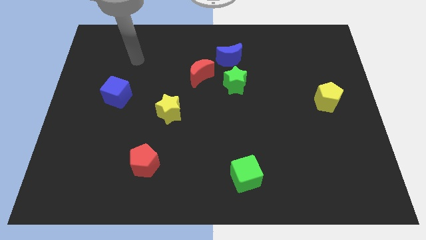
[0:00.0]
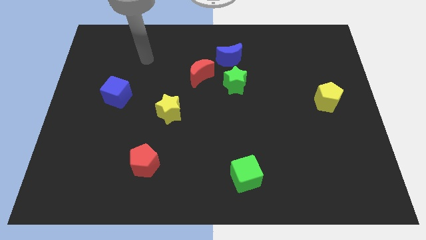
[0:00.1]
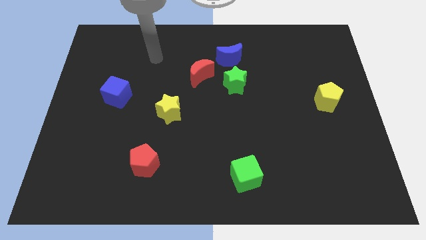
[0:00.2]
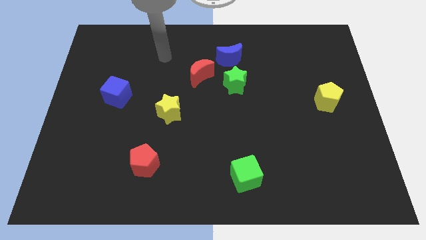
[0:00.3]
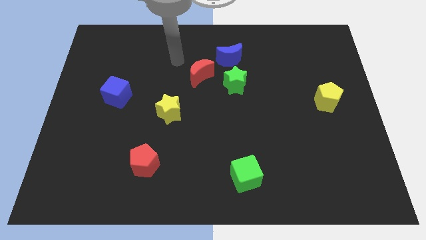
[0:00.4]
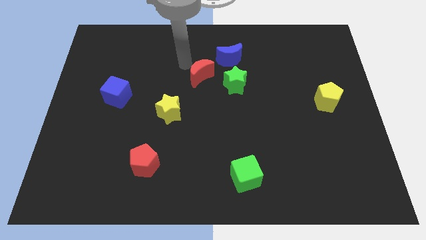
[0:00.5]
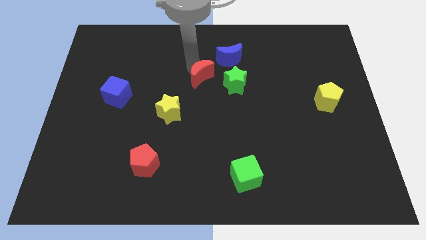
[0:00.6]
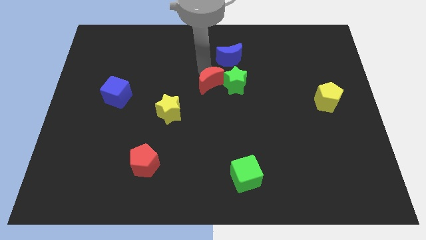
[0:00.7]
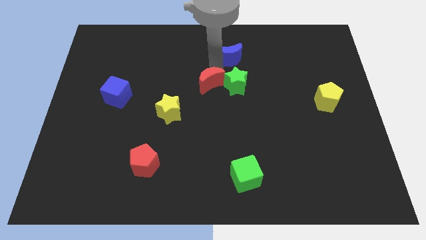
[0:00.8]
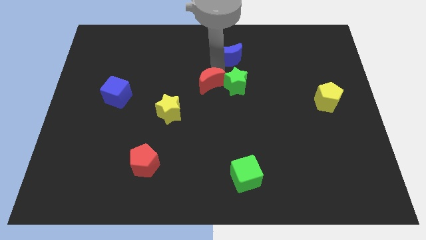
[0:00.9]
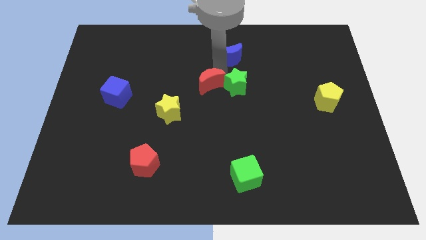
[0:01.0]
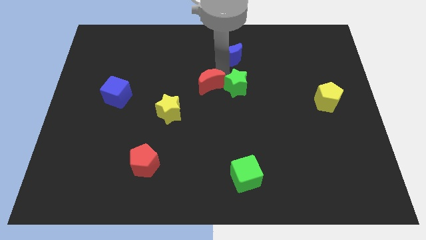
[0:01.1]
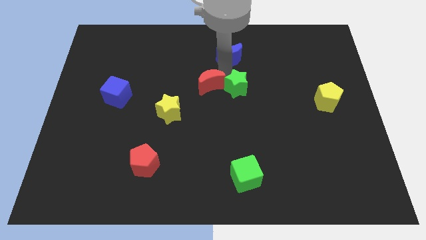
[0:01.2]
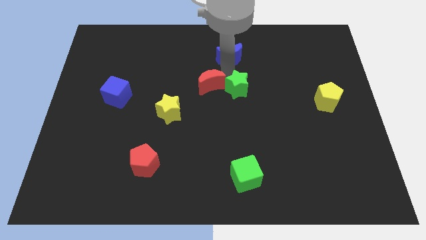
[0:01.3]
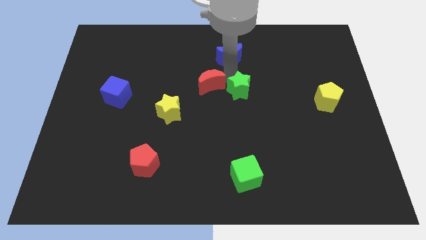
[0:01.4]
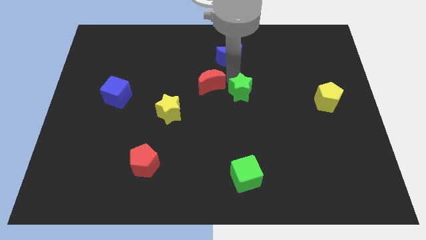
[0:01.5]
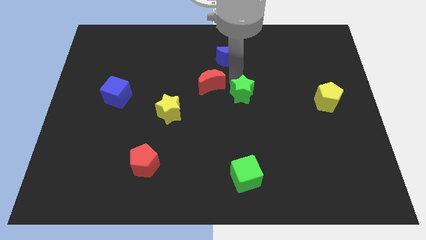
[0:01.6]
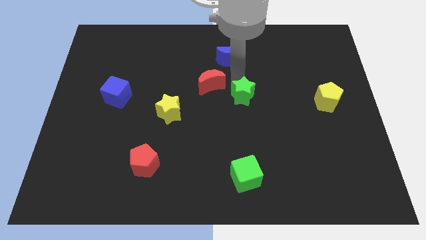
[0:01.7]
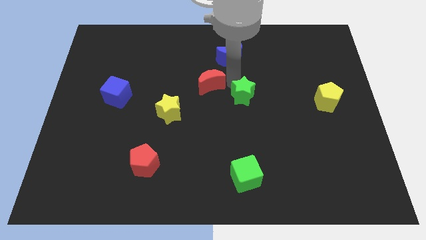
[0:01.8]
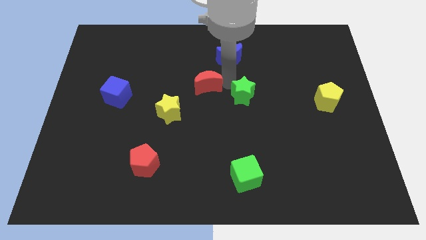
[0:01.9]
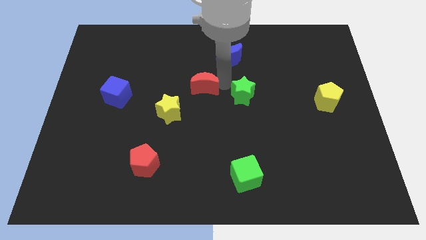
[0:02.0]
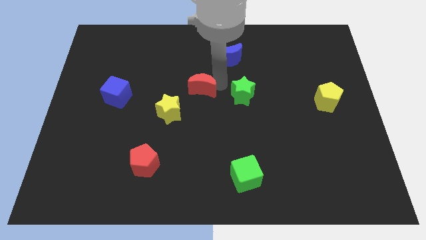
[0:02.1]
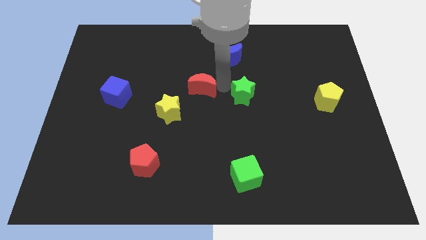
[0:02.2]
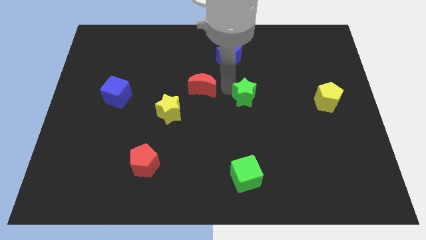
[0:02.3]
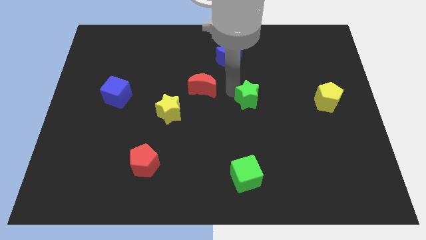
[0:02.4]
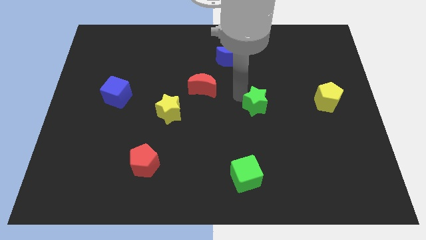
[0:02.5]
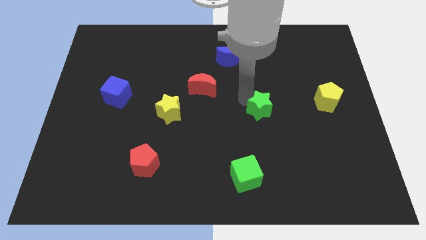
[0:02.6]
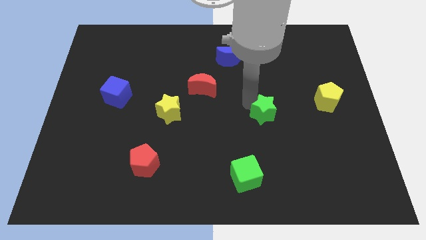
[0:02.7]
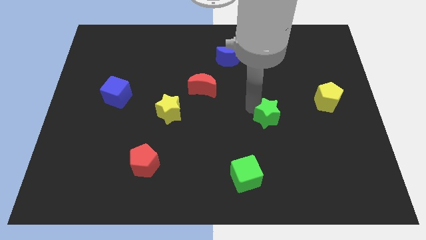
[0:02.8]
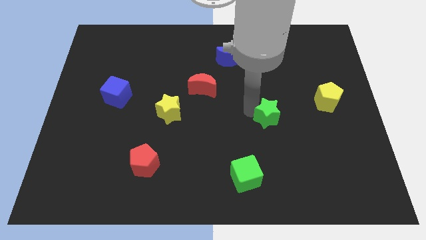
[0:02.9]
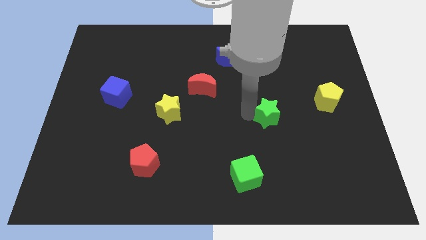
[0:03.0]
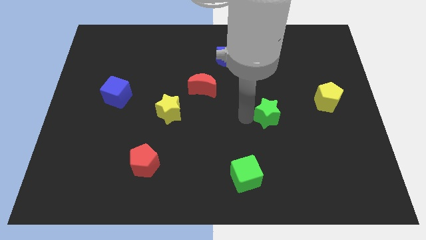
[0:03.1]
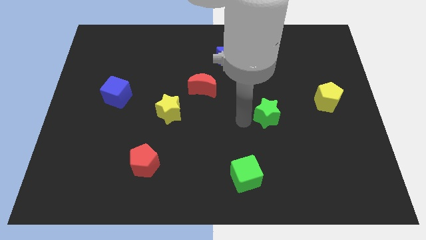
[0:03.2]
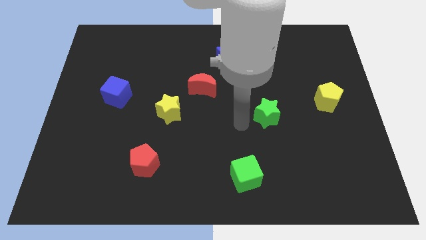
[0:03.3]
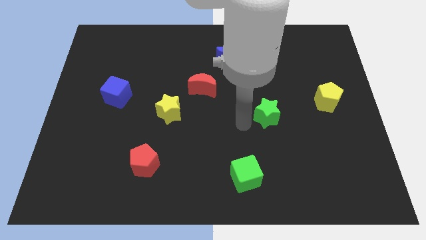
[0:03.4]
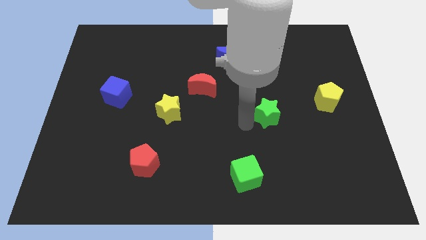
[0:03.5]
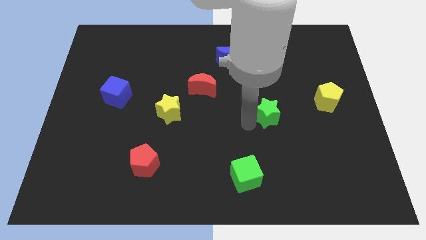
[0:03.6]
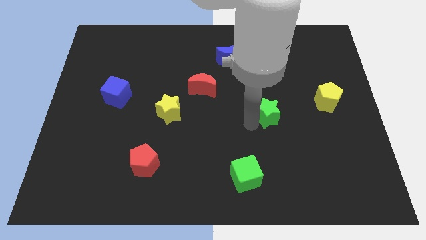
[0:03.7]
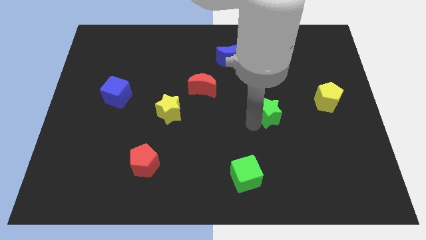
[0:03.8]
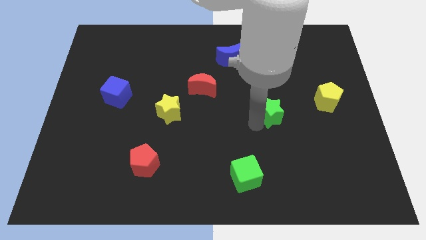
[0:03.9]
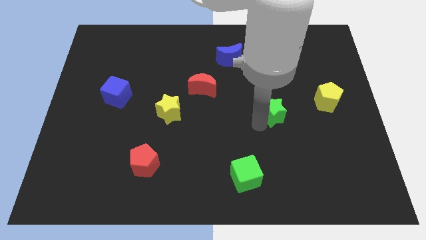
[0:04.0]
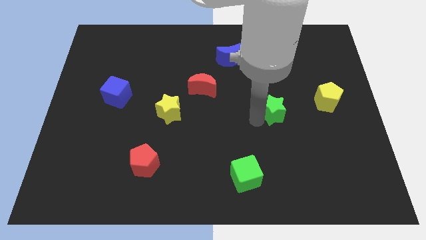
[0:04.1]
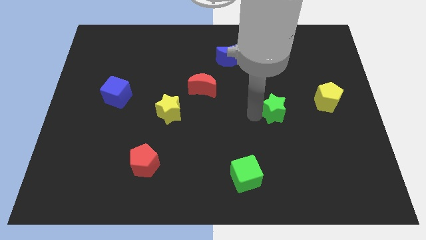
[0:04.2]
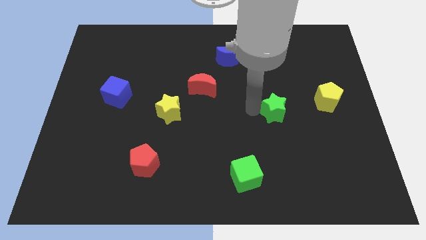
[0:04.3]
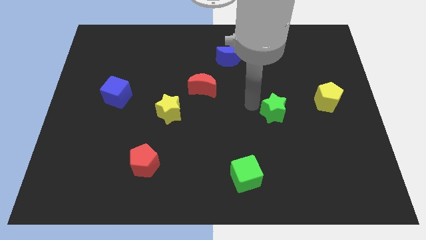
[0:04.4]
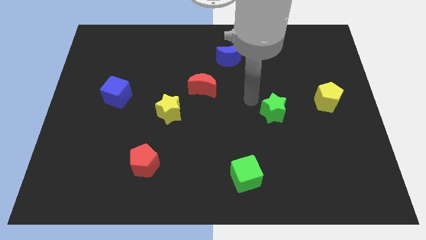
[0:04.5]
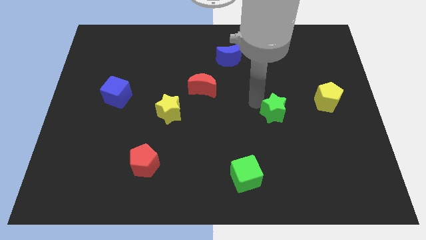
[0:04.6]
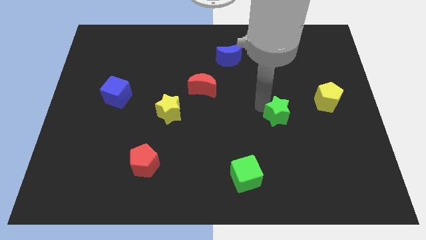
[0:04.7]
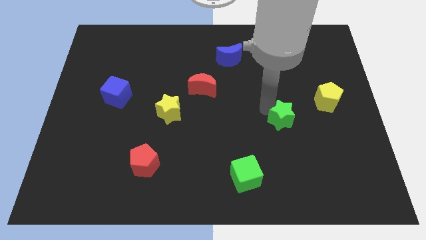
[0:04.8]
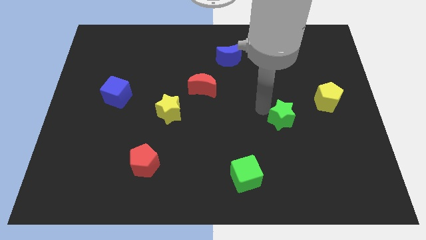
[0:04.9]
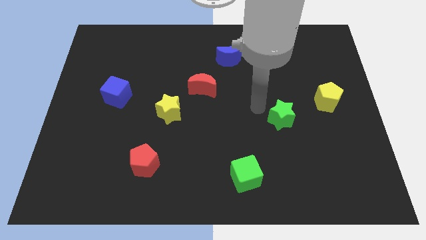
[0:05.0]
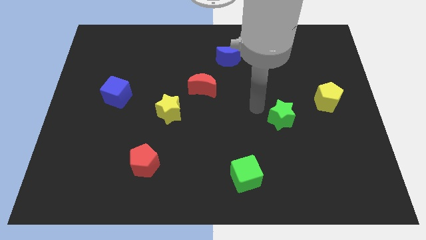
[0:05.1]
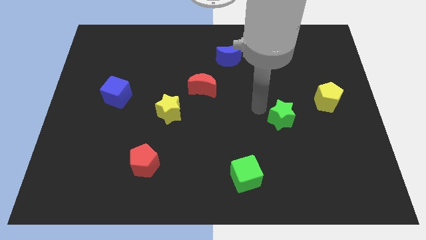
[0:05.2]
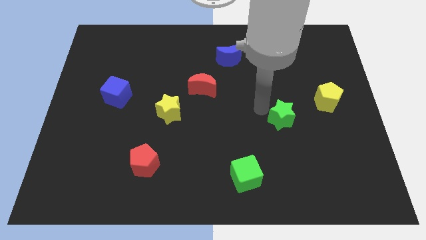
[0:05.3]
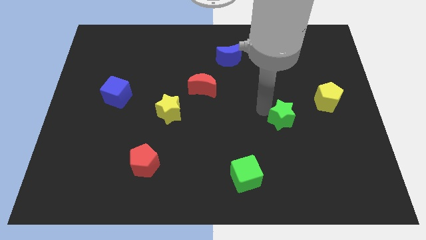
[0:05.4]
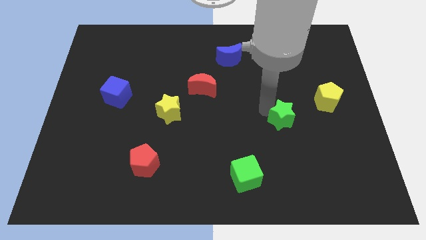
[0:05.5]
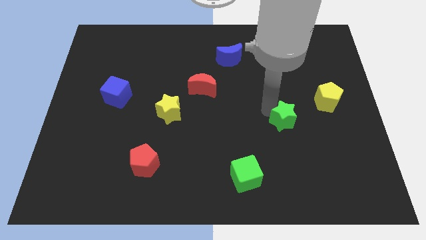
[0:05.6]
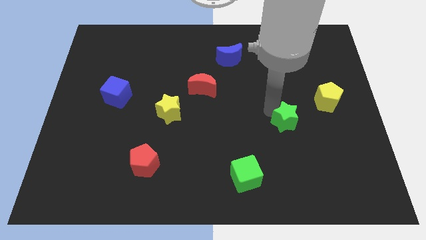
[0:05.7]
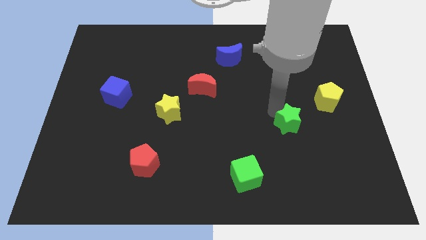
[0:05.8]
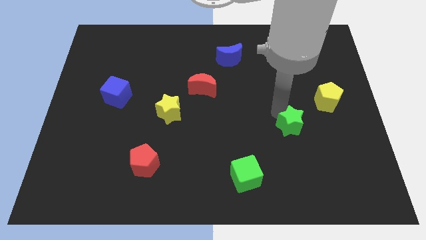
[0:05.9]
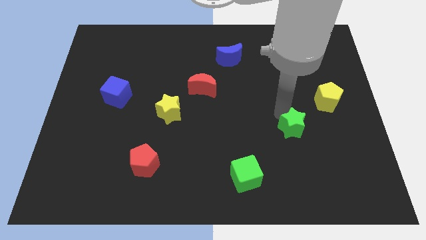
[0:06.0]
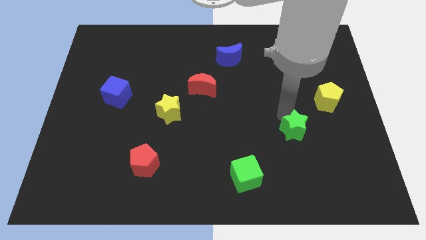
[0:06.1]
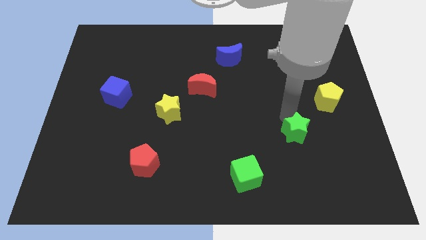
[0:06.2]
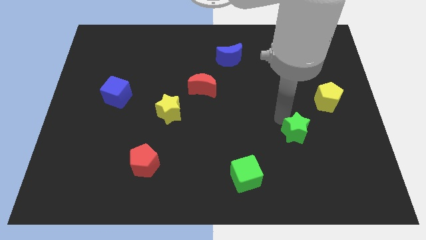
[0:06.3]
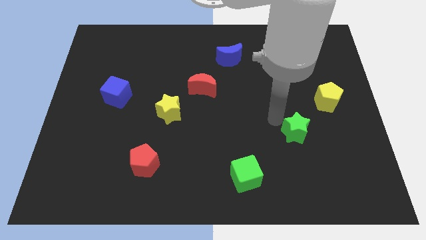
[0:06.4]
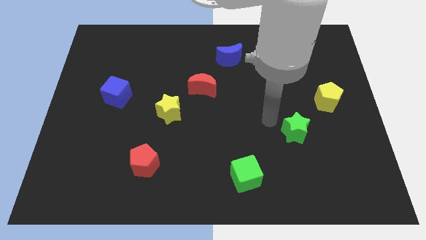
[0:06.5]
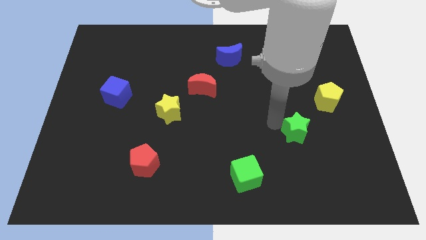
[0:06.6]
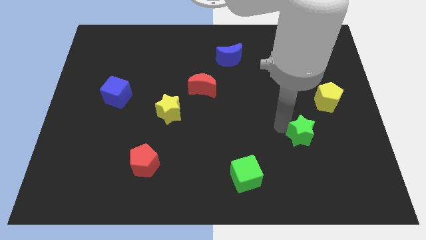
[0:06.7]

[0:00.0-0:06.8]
slide the green star down and to the right

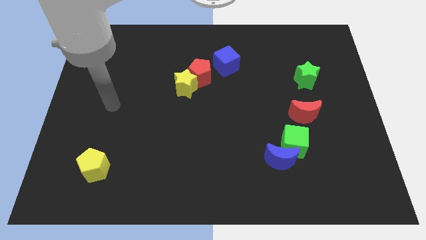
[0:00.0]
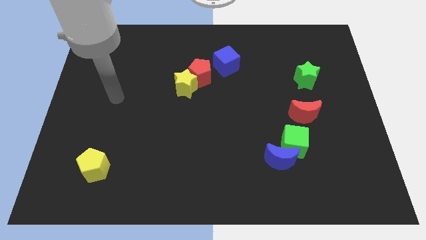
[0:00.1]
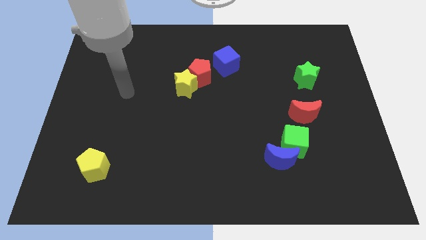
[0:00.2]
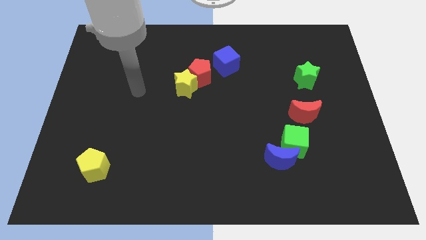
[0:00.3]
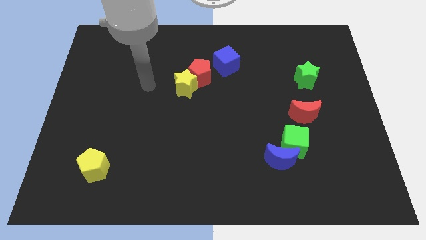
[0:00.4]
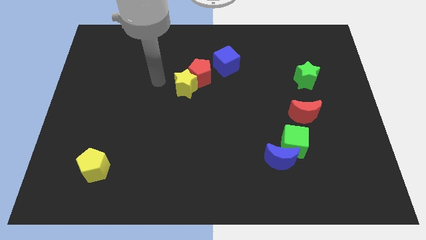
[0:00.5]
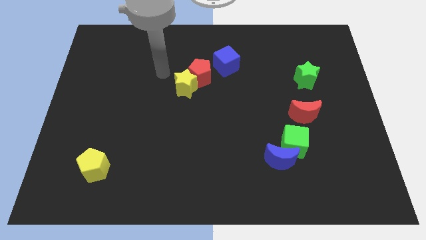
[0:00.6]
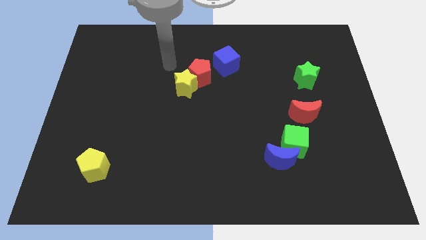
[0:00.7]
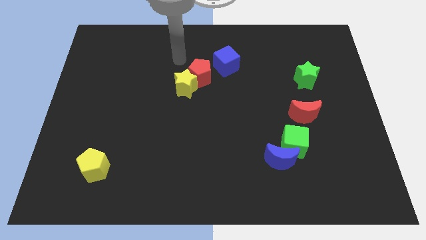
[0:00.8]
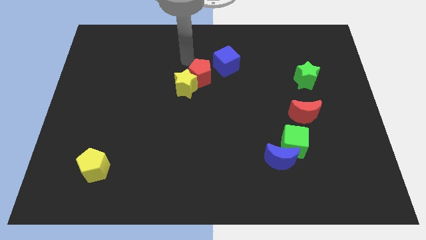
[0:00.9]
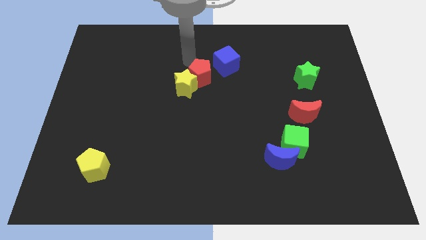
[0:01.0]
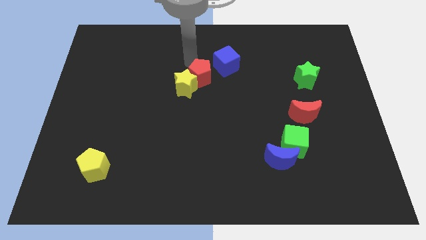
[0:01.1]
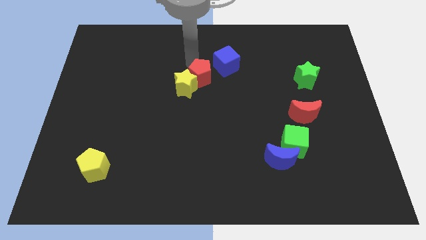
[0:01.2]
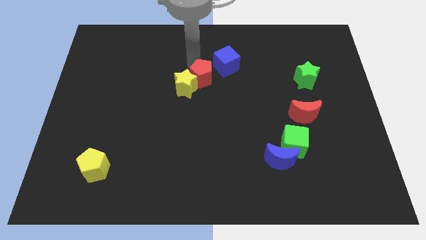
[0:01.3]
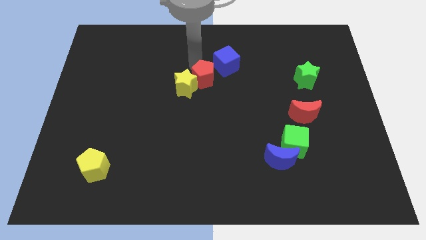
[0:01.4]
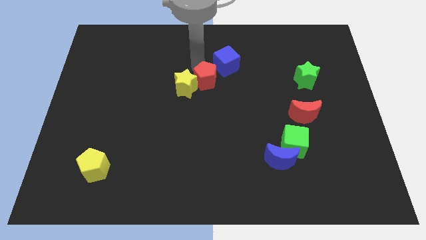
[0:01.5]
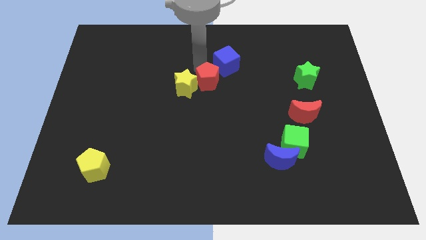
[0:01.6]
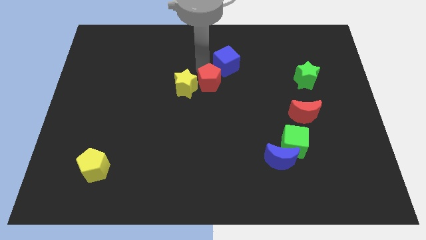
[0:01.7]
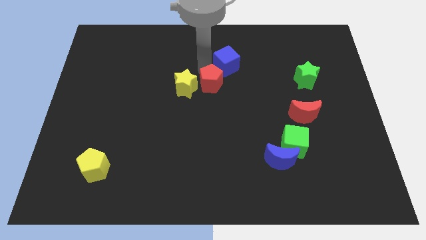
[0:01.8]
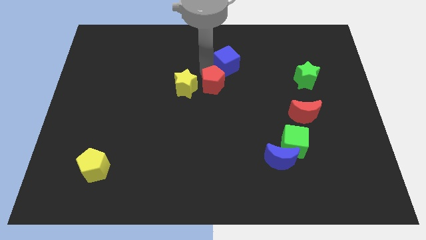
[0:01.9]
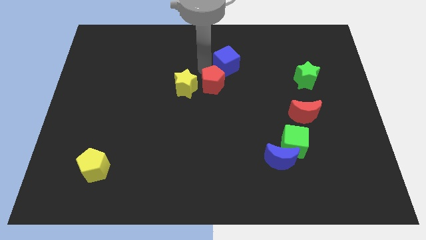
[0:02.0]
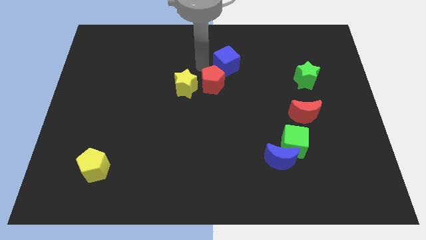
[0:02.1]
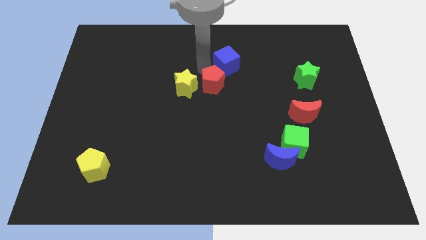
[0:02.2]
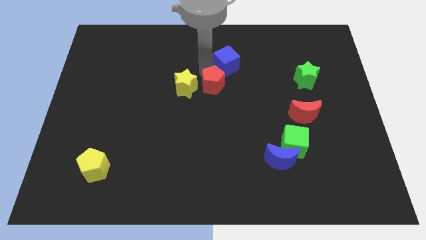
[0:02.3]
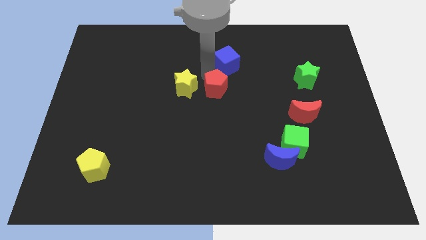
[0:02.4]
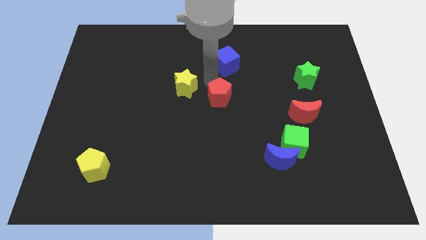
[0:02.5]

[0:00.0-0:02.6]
slightly push the red pentagon diagonally down and to the right
